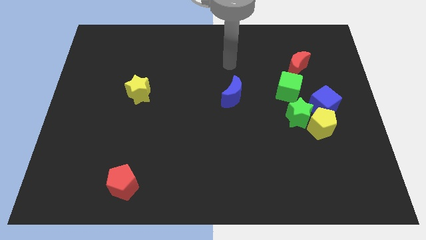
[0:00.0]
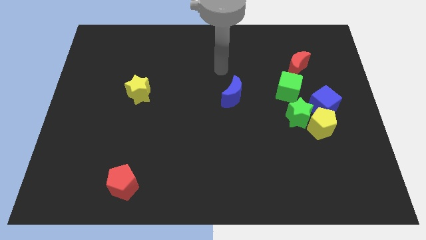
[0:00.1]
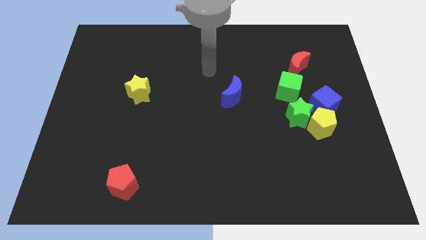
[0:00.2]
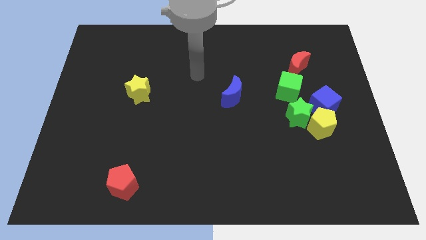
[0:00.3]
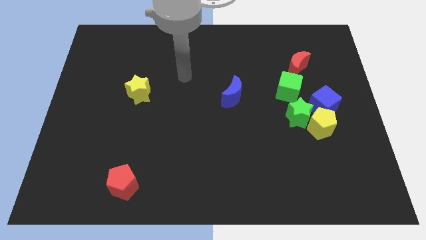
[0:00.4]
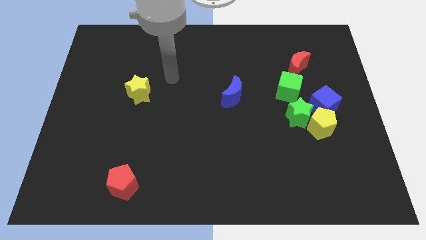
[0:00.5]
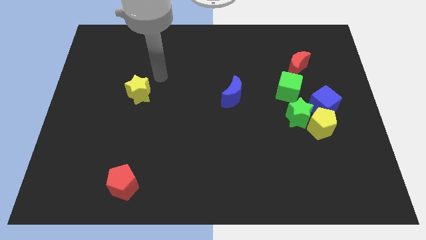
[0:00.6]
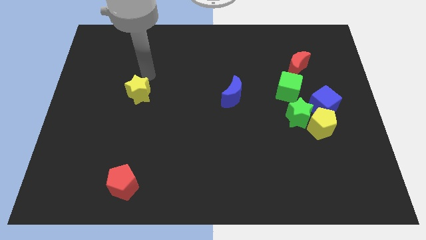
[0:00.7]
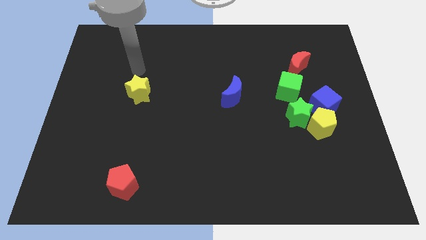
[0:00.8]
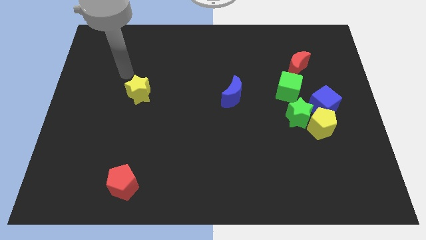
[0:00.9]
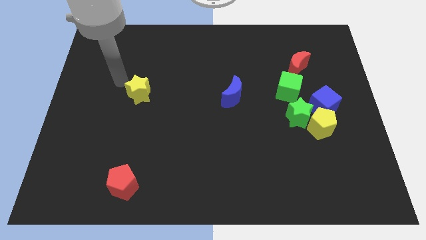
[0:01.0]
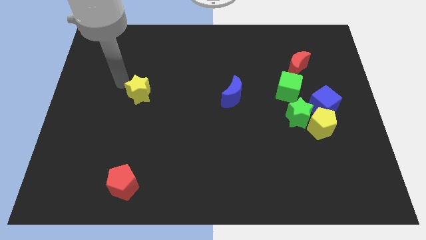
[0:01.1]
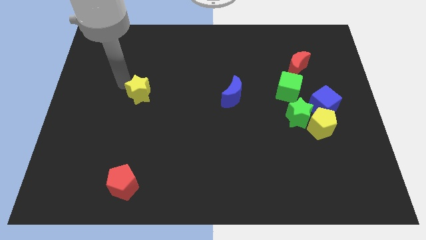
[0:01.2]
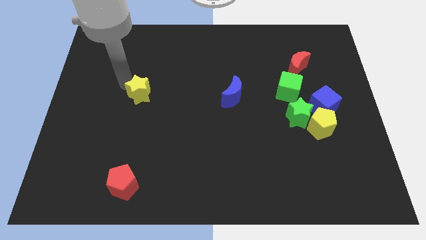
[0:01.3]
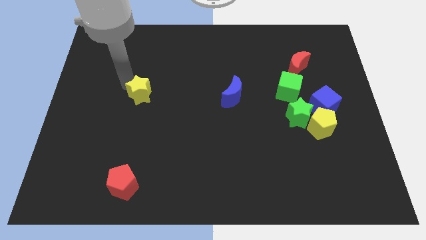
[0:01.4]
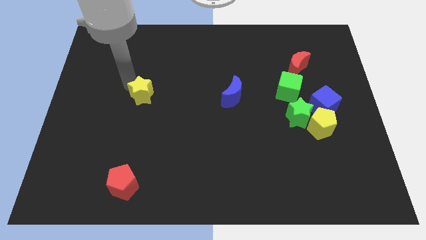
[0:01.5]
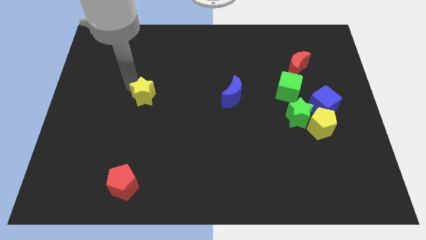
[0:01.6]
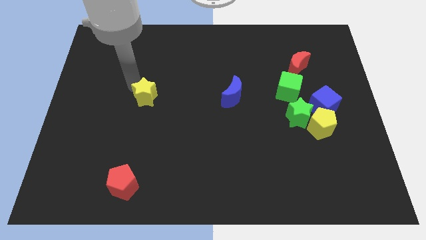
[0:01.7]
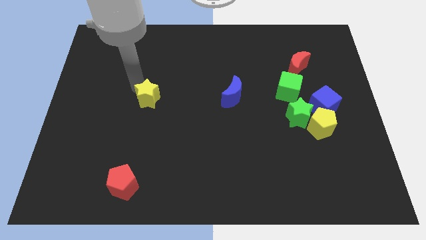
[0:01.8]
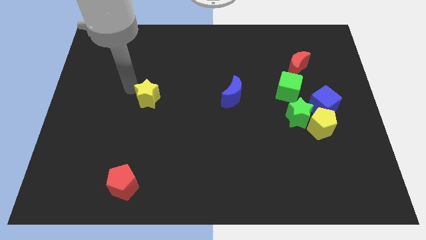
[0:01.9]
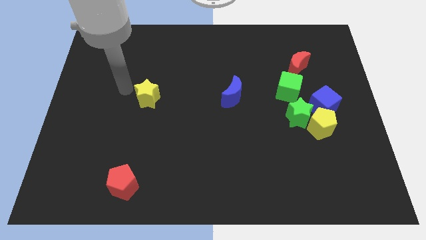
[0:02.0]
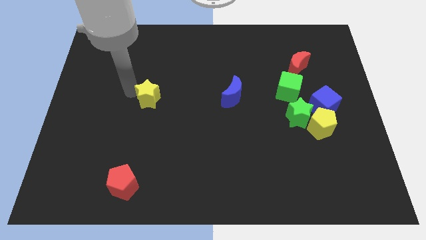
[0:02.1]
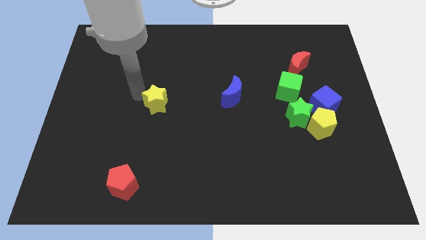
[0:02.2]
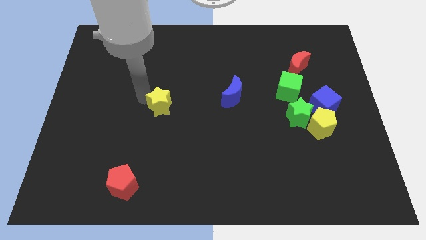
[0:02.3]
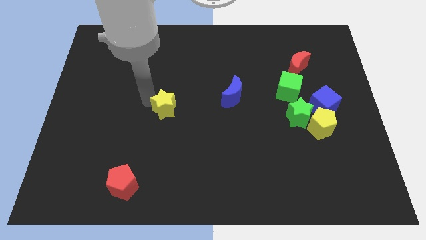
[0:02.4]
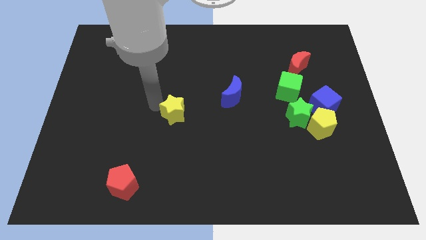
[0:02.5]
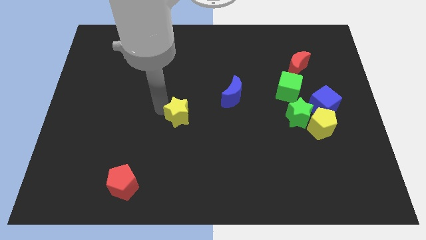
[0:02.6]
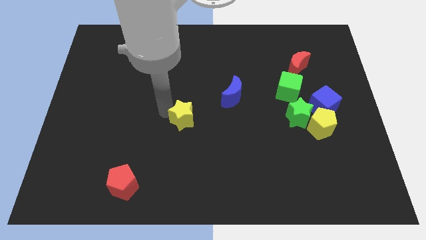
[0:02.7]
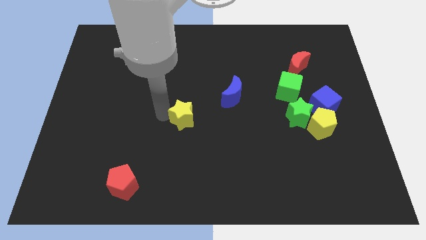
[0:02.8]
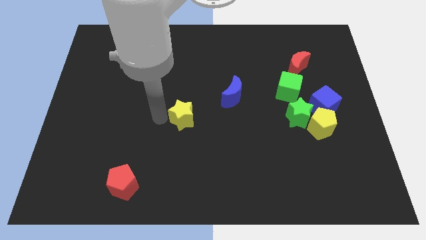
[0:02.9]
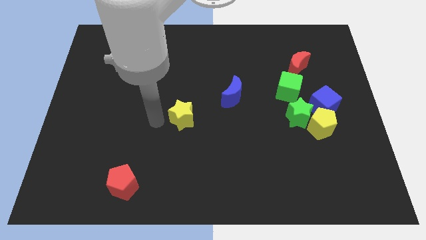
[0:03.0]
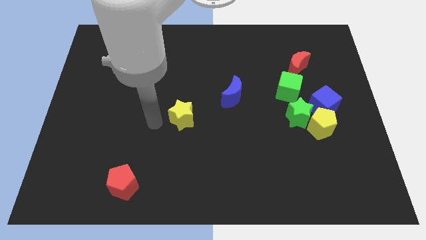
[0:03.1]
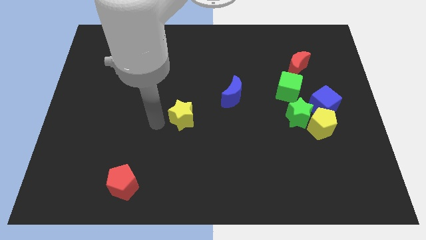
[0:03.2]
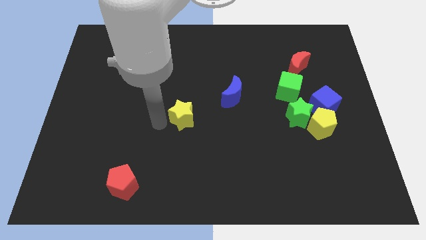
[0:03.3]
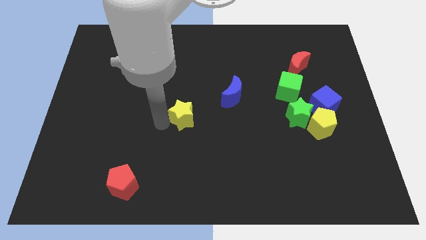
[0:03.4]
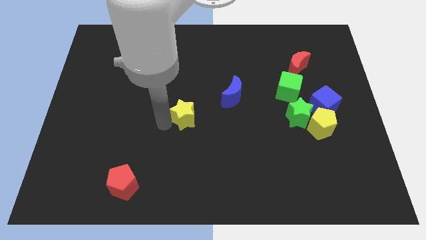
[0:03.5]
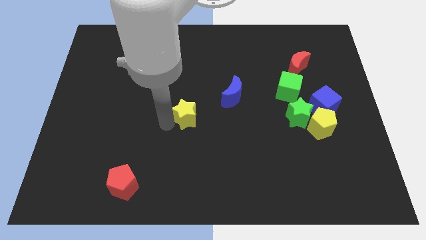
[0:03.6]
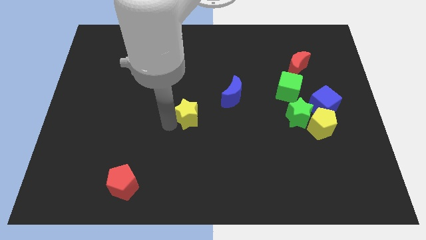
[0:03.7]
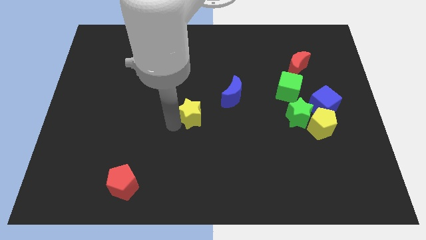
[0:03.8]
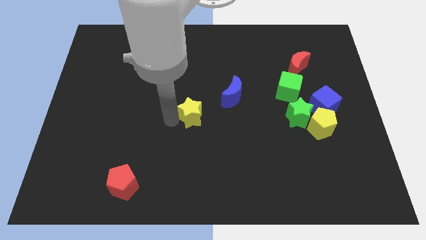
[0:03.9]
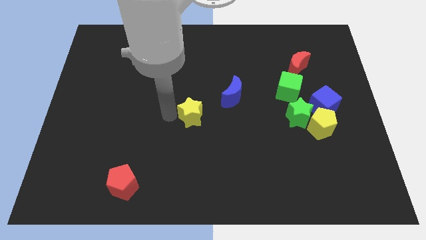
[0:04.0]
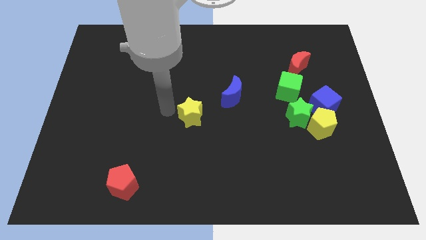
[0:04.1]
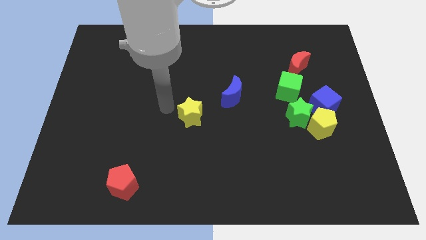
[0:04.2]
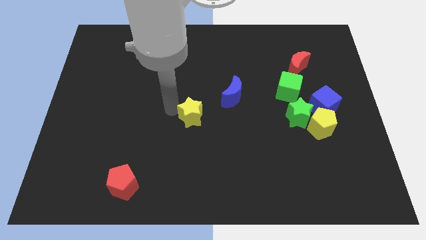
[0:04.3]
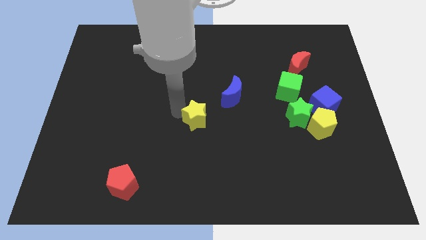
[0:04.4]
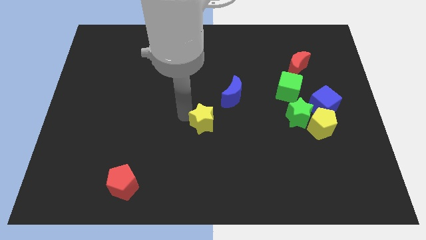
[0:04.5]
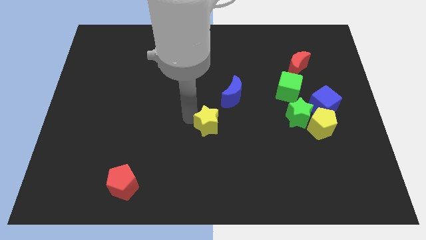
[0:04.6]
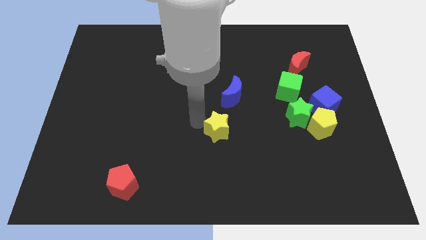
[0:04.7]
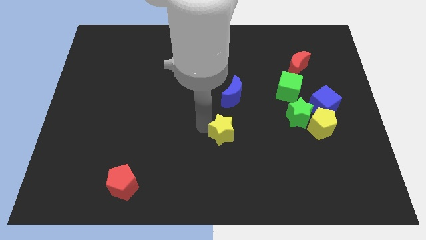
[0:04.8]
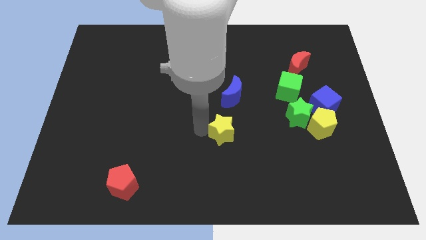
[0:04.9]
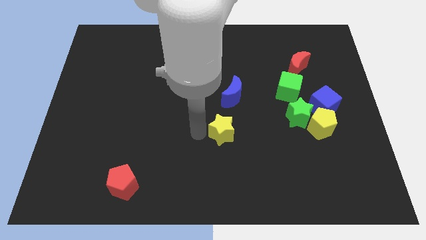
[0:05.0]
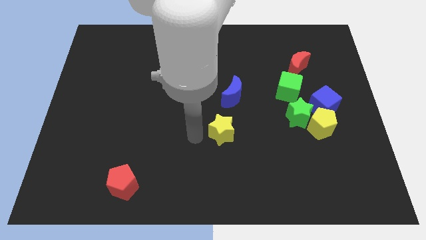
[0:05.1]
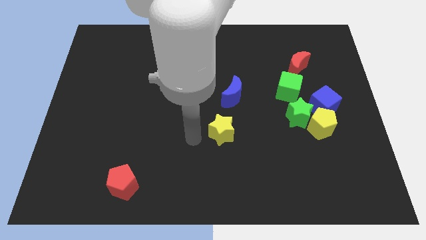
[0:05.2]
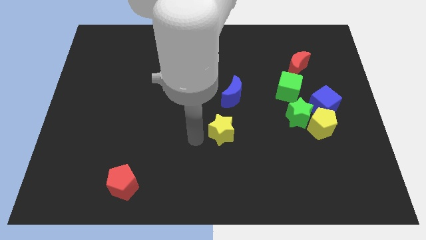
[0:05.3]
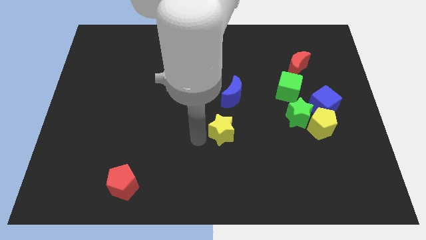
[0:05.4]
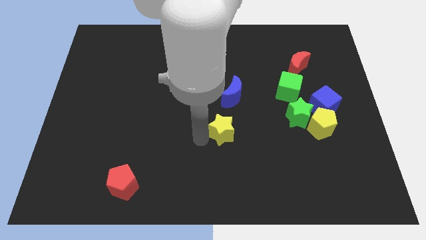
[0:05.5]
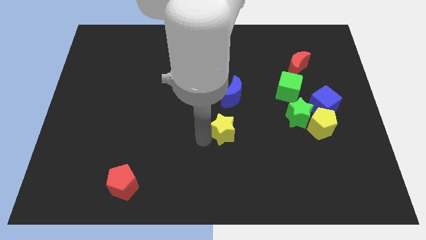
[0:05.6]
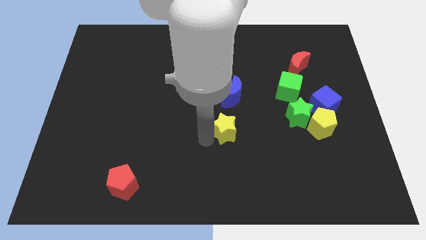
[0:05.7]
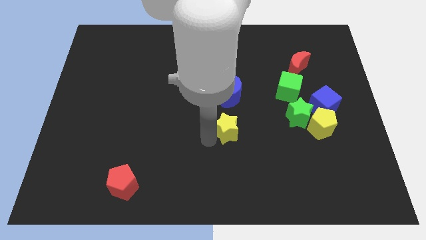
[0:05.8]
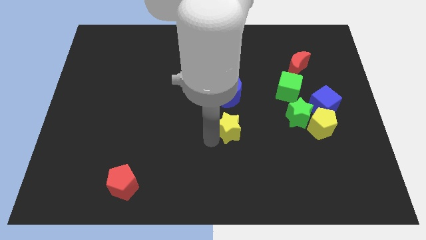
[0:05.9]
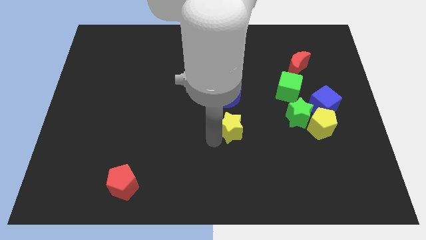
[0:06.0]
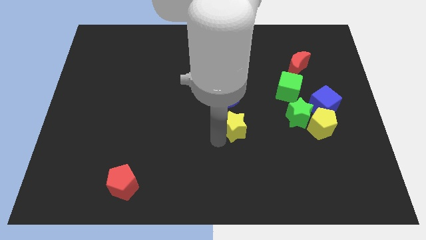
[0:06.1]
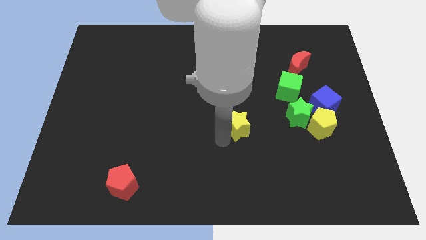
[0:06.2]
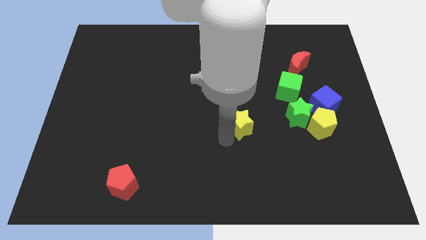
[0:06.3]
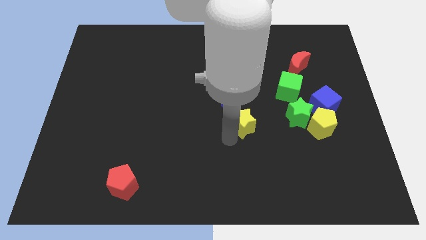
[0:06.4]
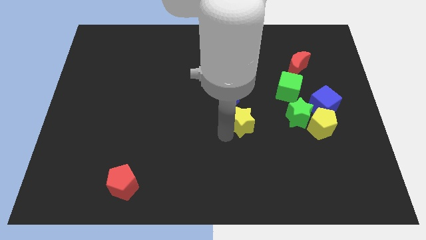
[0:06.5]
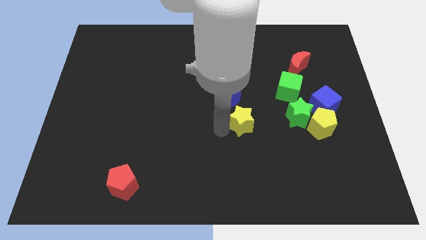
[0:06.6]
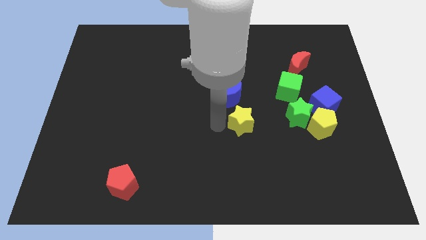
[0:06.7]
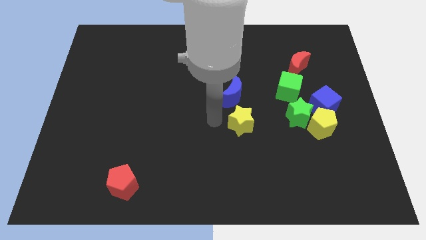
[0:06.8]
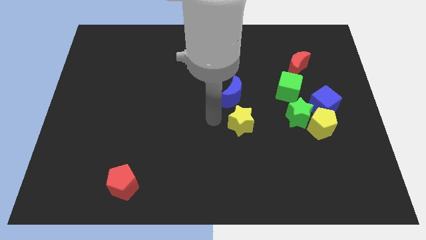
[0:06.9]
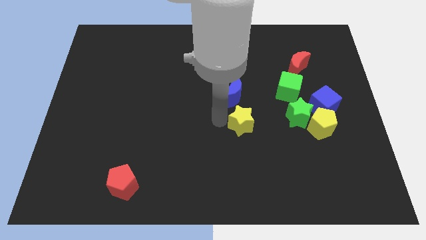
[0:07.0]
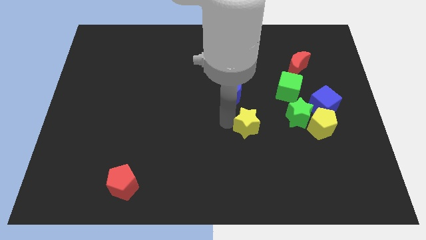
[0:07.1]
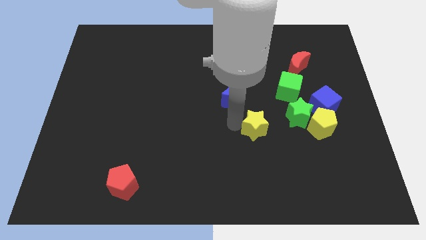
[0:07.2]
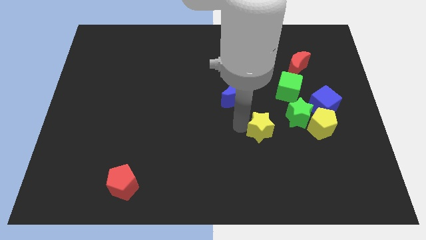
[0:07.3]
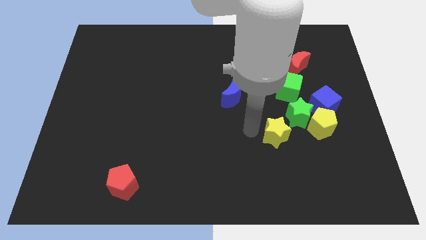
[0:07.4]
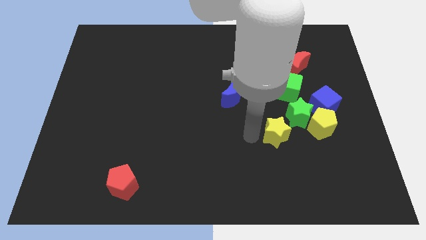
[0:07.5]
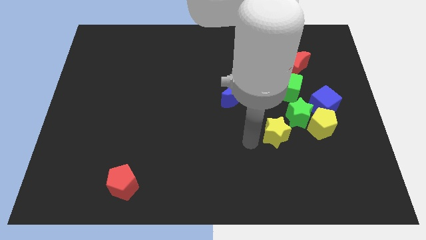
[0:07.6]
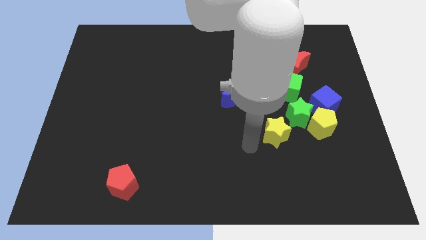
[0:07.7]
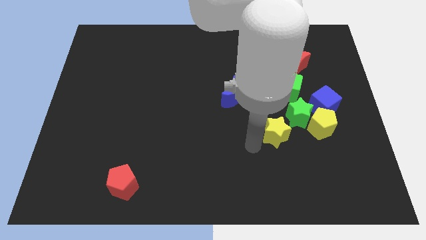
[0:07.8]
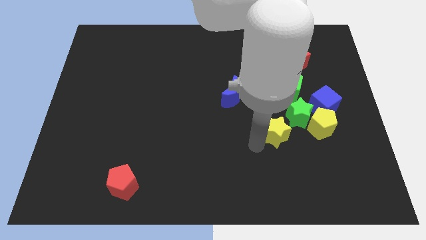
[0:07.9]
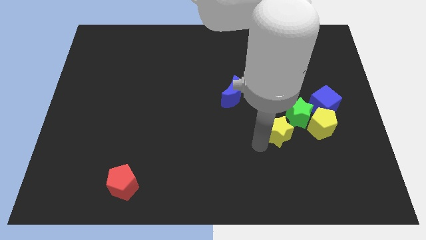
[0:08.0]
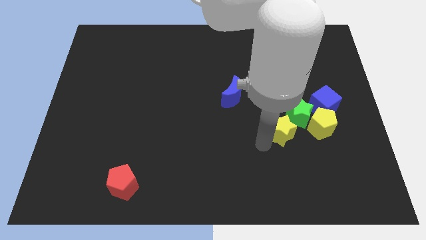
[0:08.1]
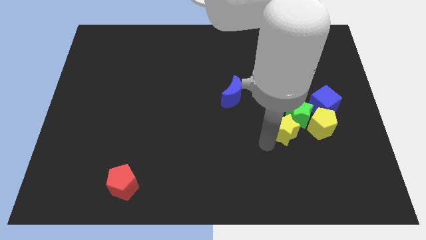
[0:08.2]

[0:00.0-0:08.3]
slide the yellow star diagonally down and to the left of the blue cube
